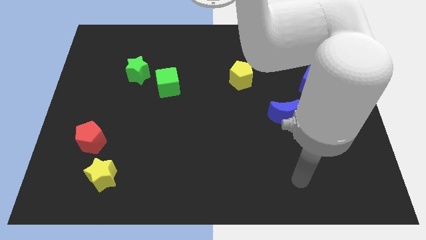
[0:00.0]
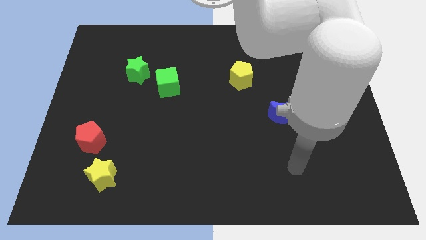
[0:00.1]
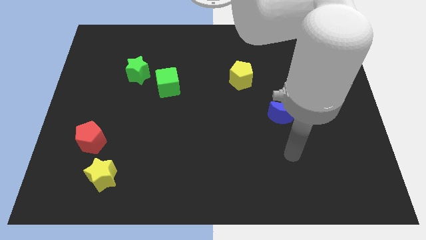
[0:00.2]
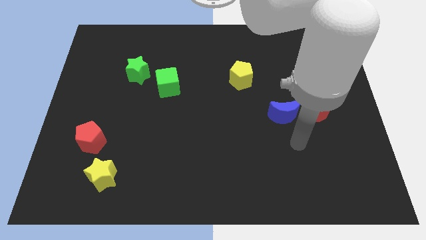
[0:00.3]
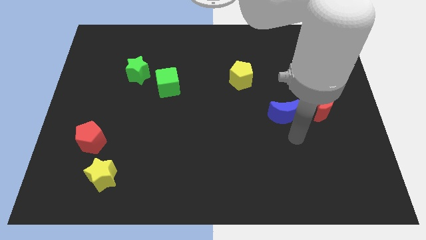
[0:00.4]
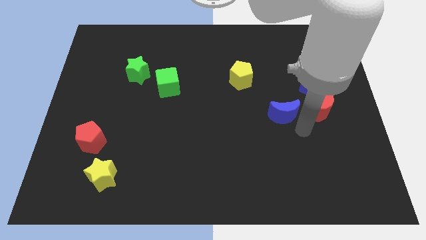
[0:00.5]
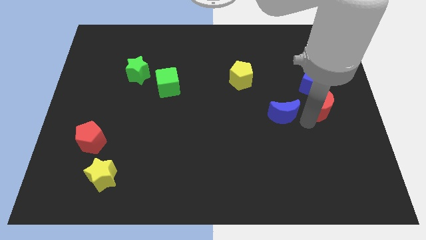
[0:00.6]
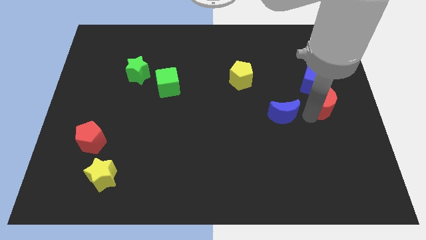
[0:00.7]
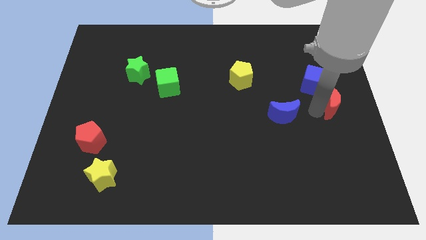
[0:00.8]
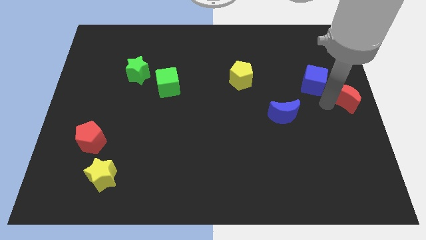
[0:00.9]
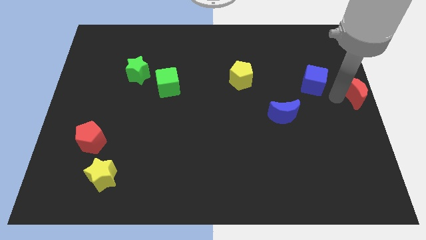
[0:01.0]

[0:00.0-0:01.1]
separate the blue cube from the red moon

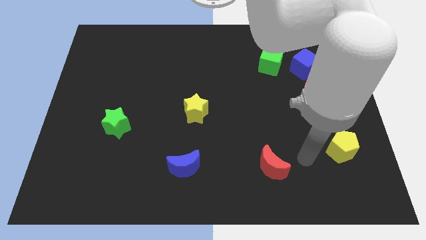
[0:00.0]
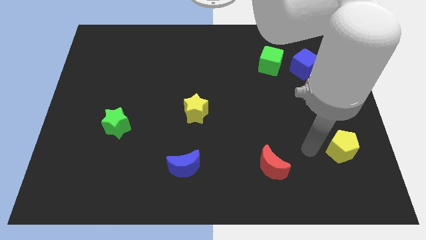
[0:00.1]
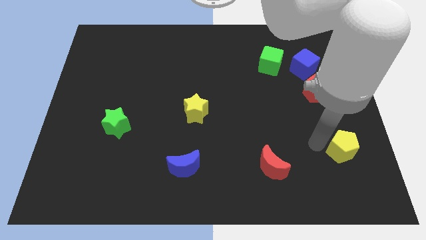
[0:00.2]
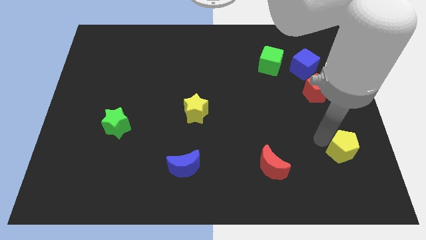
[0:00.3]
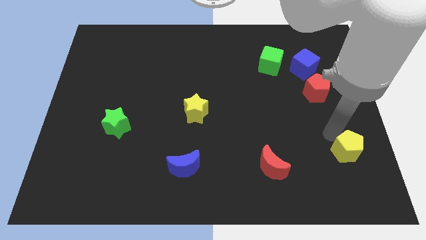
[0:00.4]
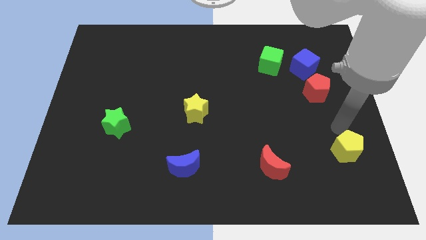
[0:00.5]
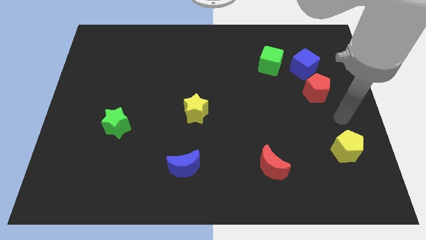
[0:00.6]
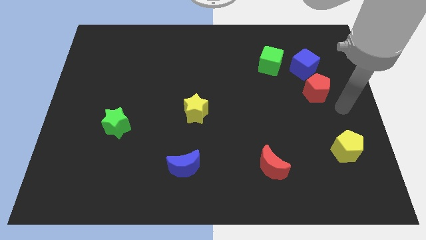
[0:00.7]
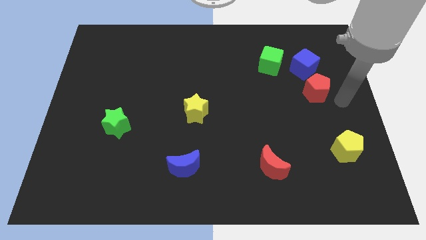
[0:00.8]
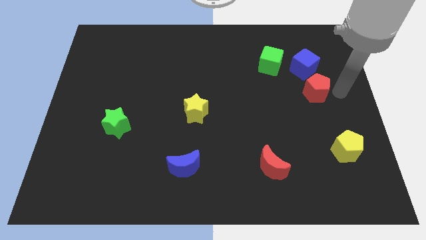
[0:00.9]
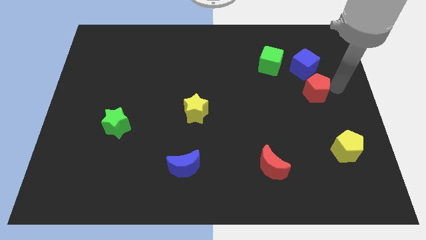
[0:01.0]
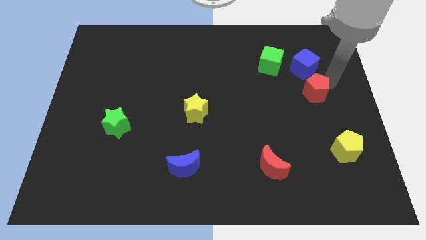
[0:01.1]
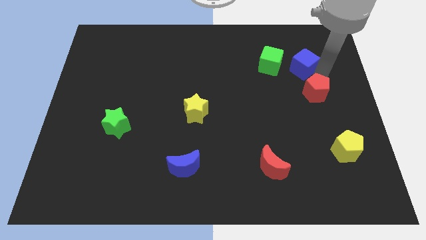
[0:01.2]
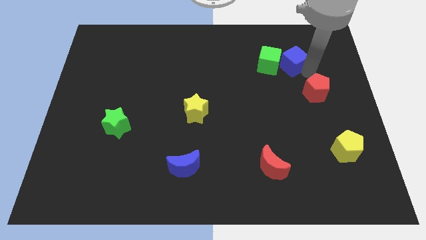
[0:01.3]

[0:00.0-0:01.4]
pull the red pentagon apart from the blue cube

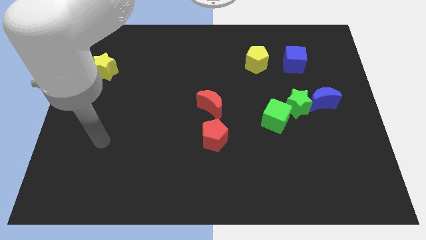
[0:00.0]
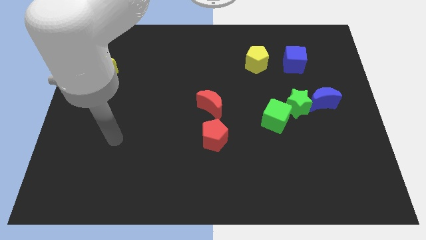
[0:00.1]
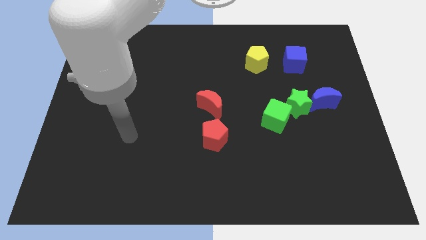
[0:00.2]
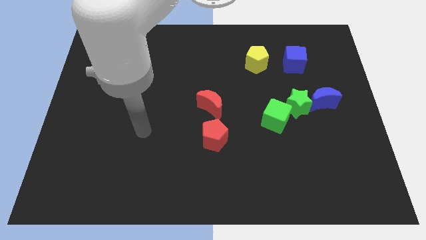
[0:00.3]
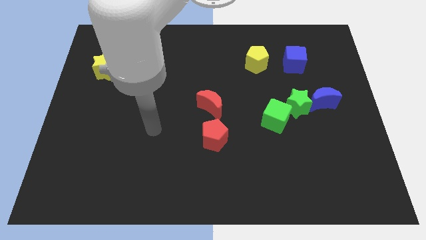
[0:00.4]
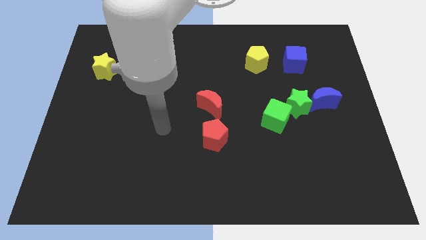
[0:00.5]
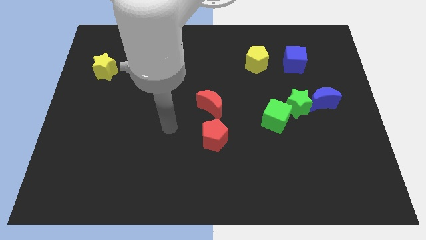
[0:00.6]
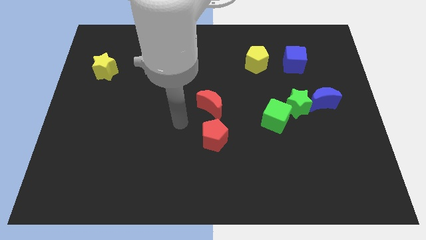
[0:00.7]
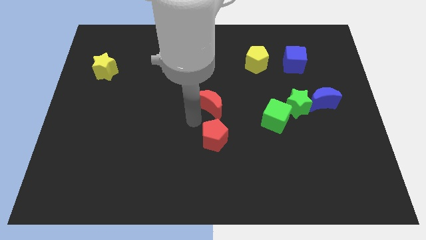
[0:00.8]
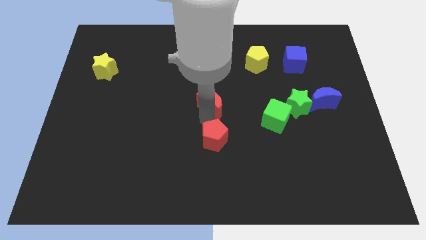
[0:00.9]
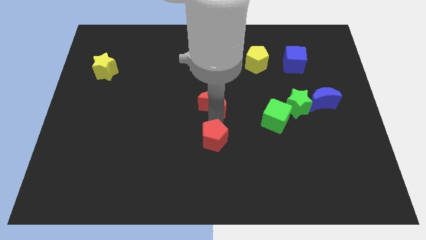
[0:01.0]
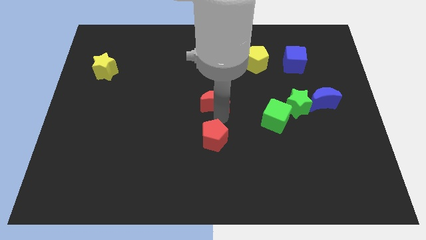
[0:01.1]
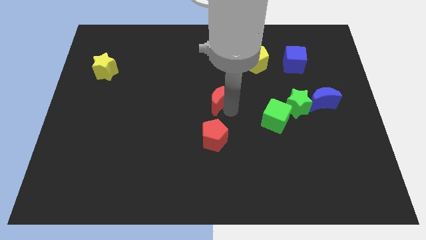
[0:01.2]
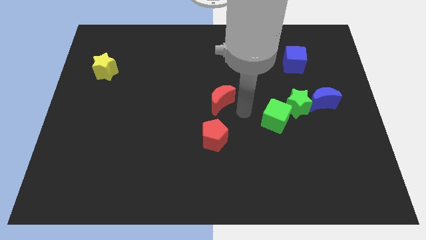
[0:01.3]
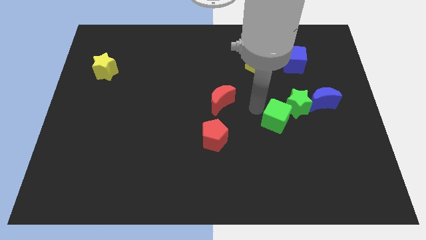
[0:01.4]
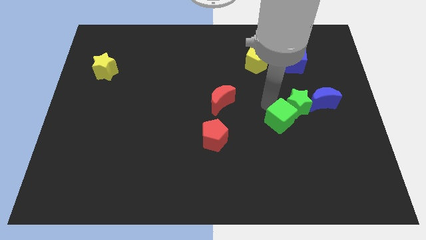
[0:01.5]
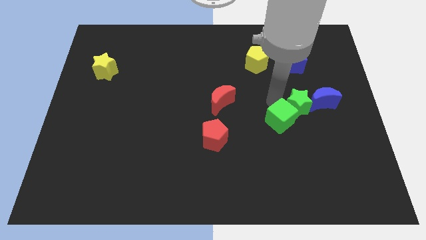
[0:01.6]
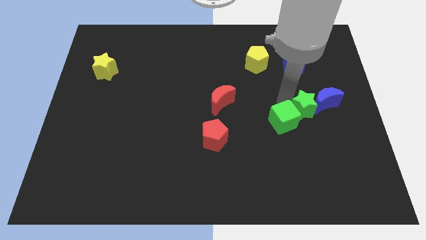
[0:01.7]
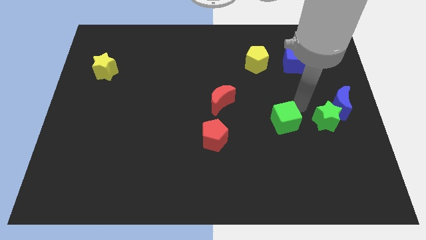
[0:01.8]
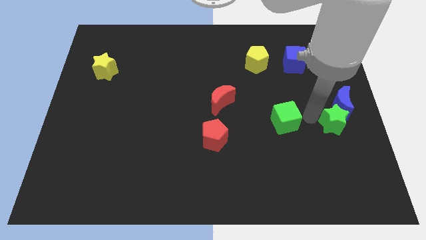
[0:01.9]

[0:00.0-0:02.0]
pull the green cube apart from the green star

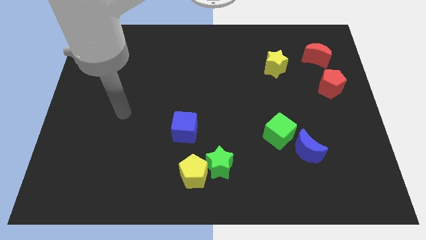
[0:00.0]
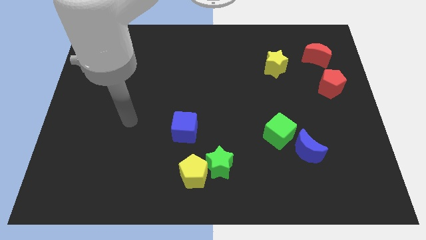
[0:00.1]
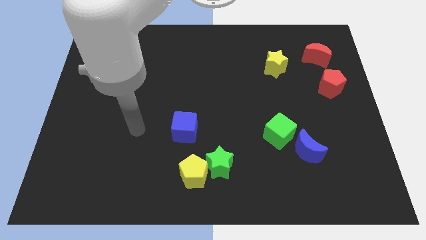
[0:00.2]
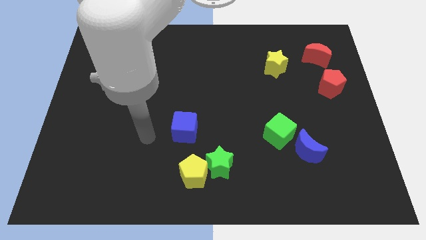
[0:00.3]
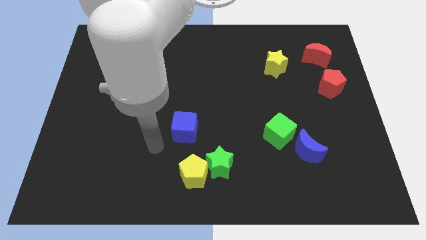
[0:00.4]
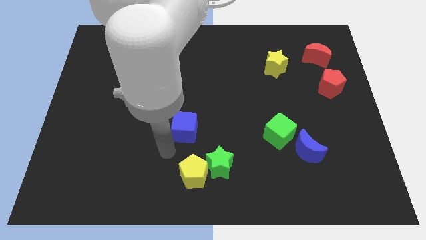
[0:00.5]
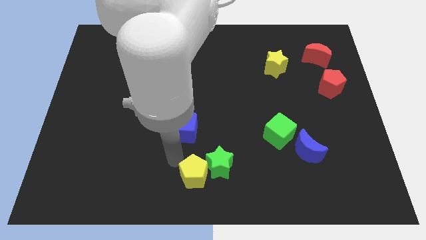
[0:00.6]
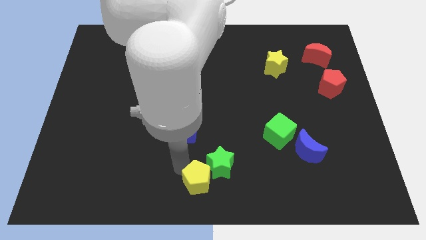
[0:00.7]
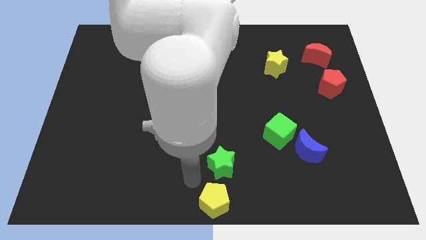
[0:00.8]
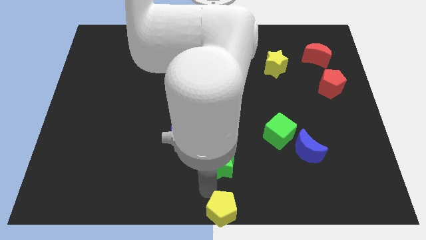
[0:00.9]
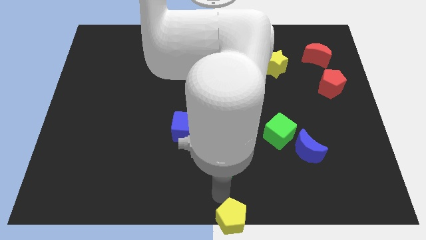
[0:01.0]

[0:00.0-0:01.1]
pull the green star apart from the yellow pentagon

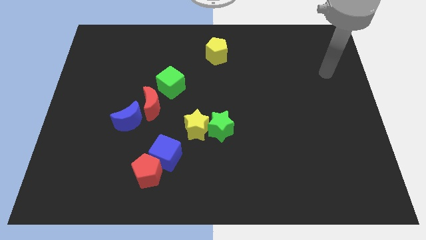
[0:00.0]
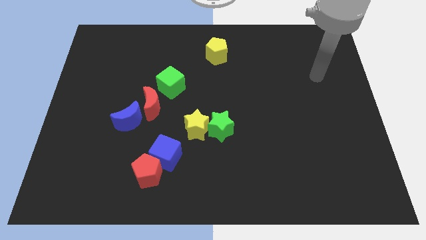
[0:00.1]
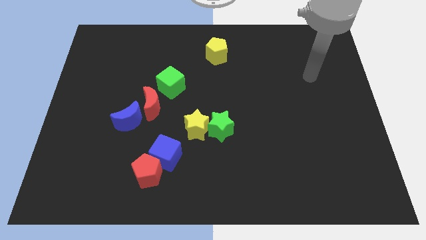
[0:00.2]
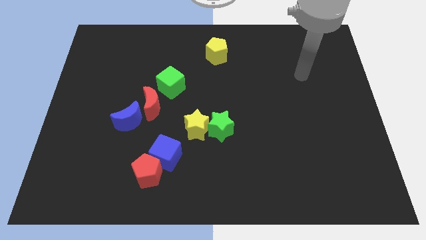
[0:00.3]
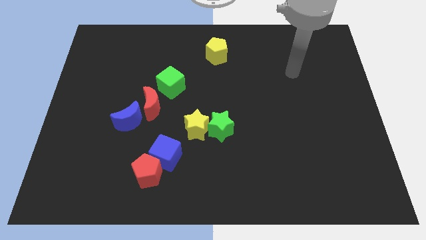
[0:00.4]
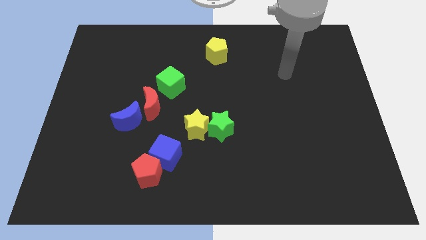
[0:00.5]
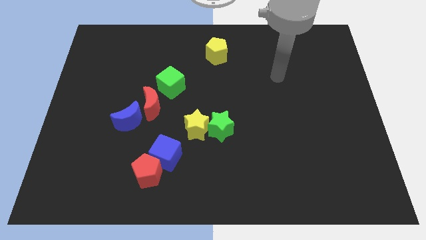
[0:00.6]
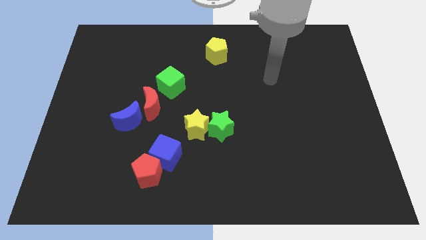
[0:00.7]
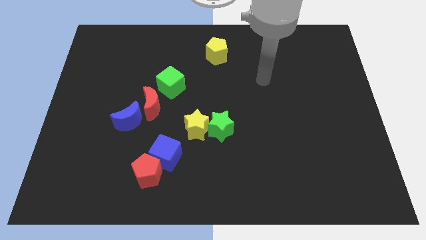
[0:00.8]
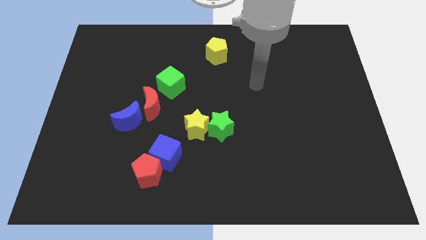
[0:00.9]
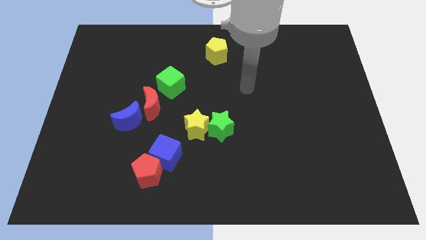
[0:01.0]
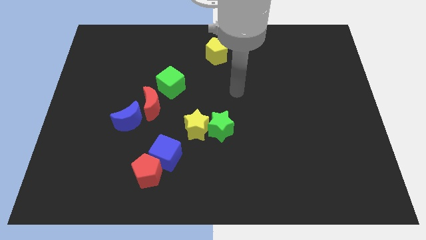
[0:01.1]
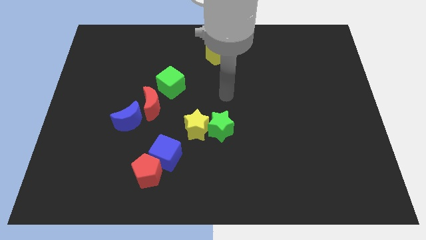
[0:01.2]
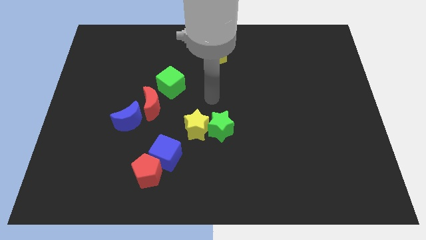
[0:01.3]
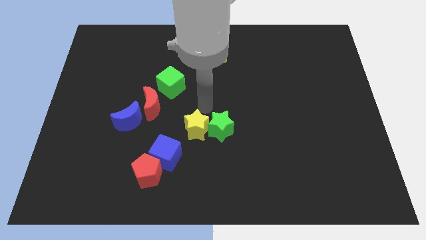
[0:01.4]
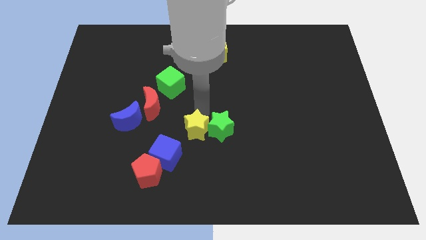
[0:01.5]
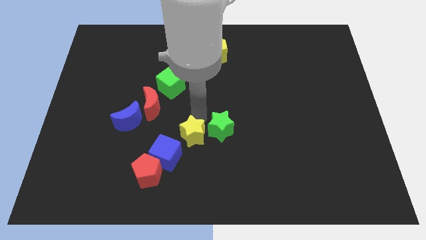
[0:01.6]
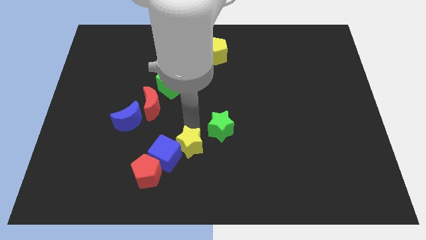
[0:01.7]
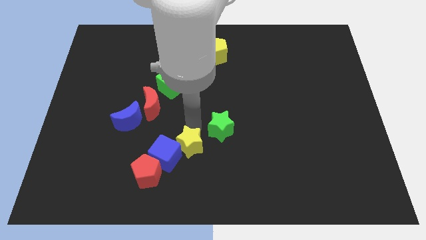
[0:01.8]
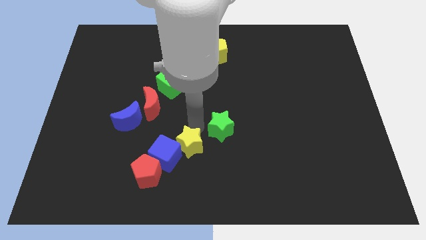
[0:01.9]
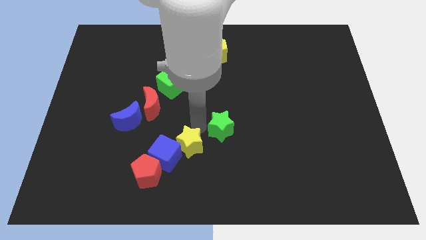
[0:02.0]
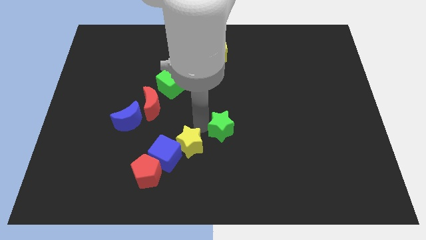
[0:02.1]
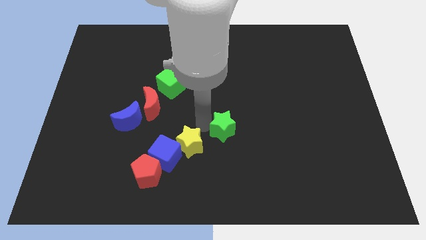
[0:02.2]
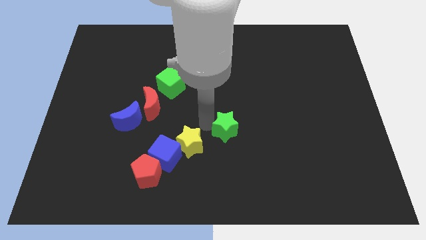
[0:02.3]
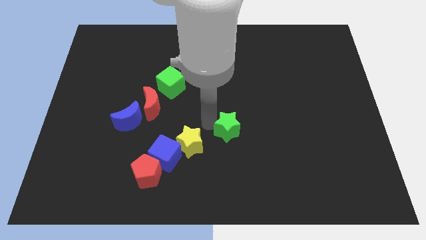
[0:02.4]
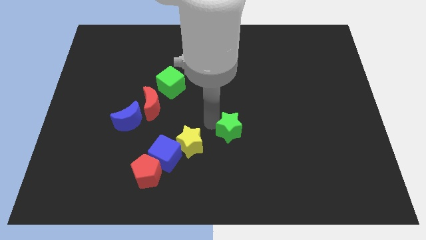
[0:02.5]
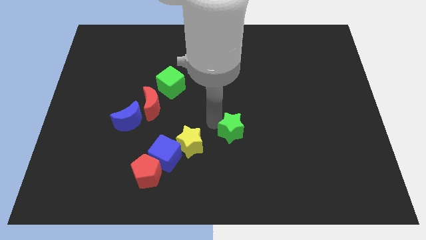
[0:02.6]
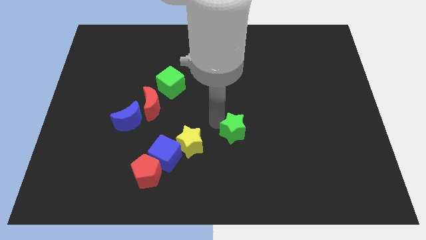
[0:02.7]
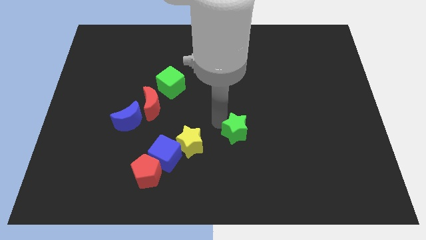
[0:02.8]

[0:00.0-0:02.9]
pull the green star apart from the yellow star

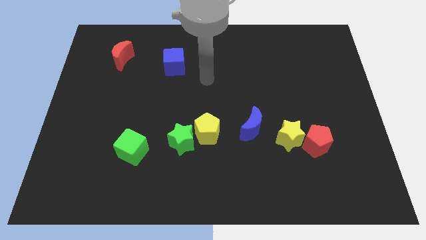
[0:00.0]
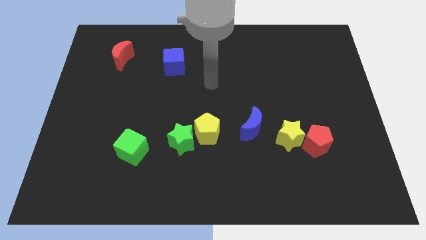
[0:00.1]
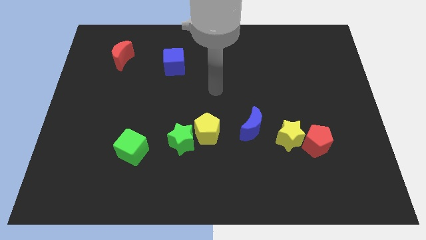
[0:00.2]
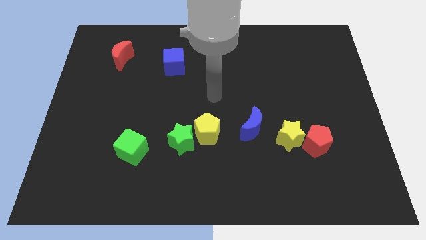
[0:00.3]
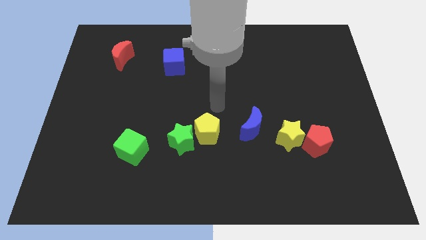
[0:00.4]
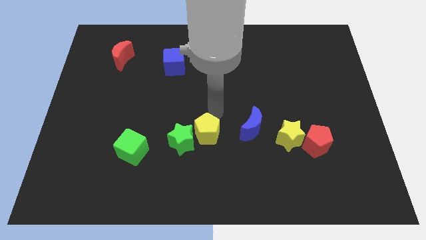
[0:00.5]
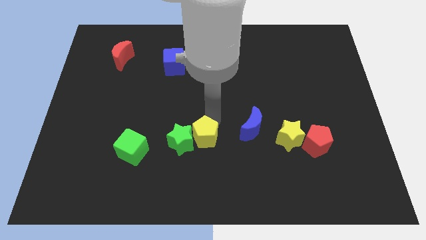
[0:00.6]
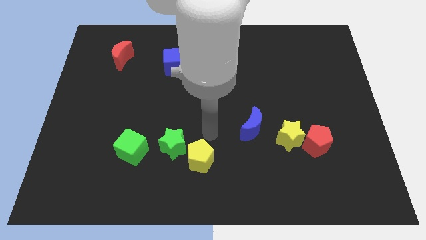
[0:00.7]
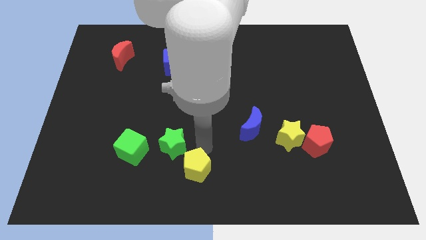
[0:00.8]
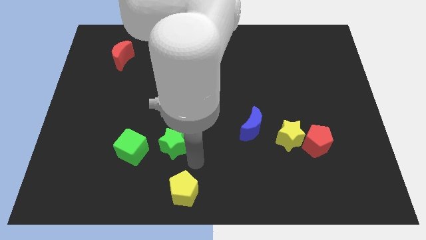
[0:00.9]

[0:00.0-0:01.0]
separate the green star from the yellow pentagon
